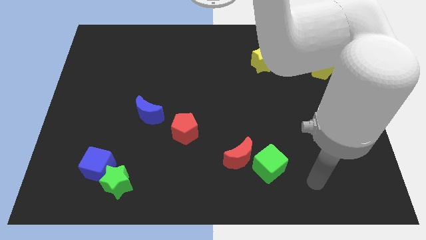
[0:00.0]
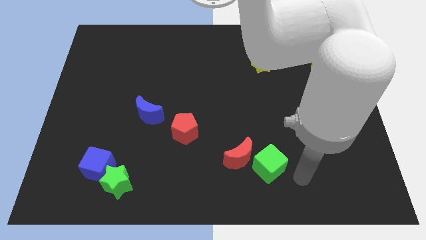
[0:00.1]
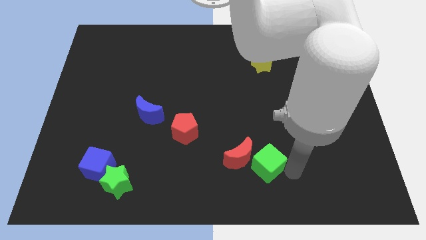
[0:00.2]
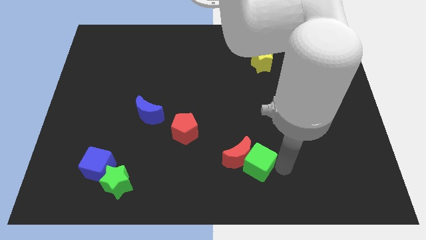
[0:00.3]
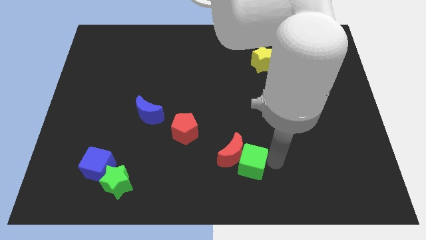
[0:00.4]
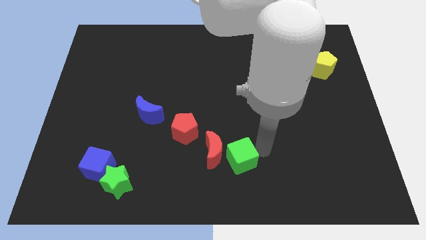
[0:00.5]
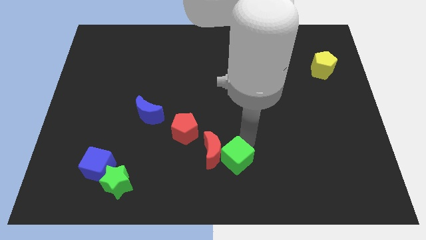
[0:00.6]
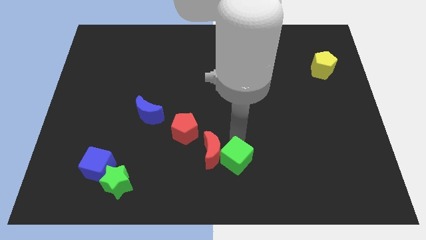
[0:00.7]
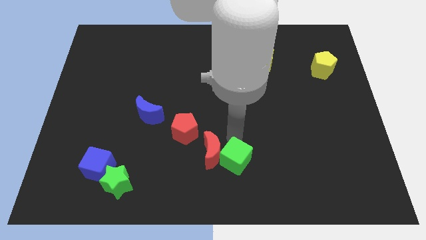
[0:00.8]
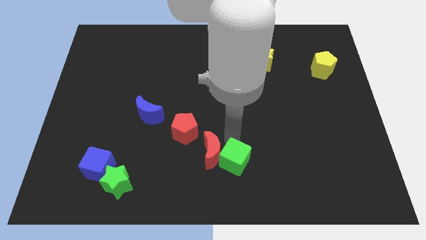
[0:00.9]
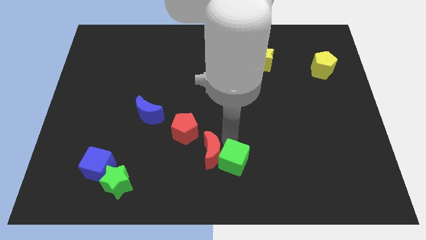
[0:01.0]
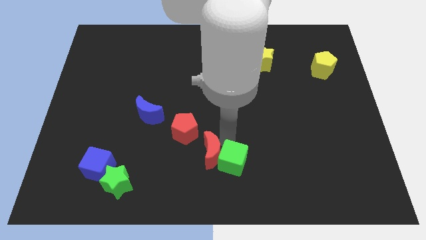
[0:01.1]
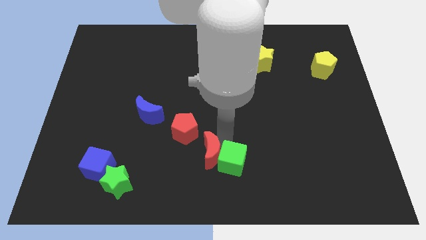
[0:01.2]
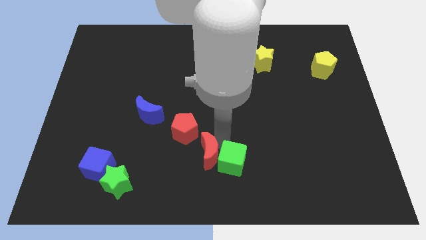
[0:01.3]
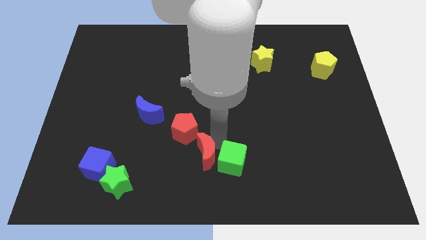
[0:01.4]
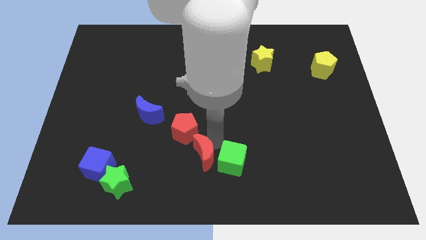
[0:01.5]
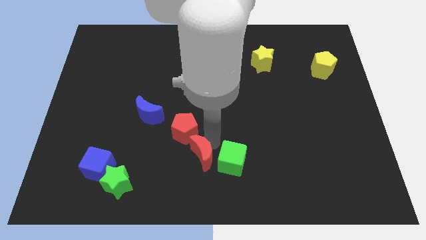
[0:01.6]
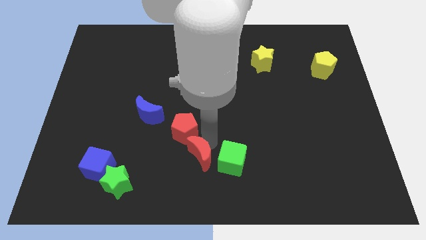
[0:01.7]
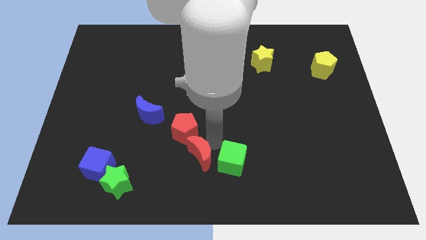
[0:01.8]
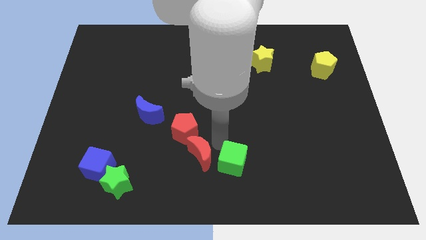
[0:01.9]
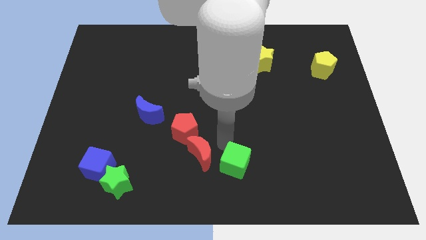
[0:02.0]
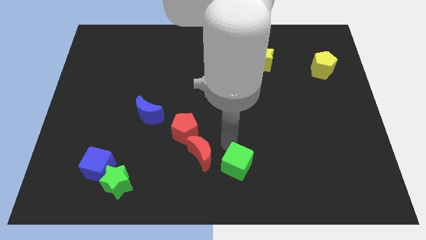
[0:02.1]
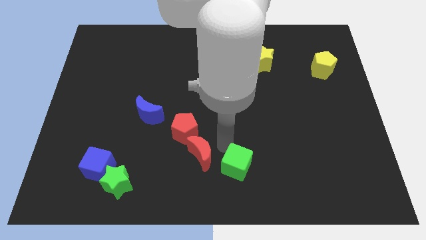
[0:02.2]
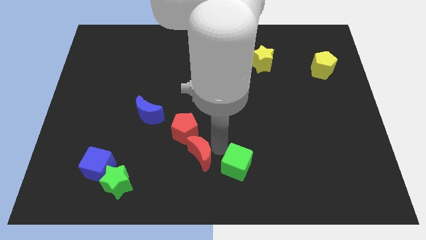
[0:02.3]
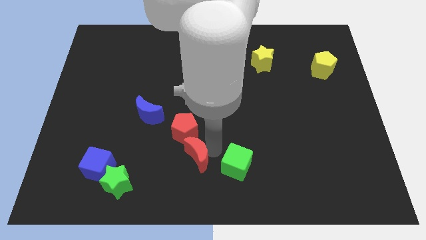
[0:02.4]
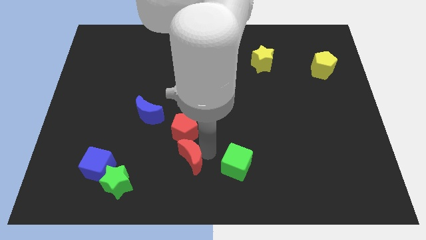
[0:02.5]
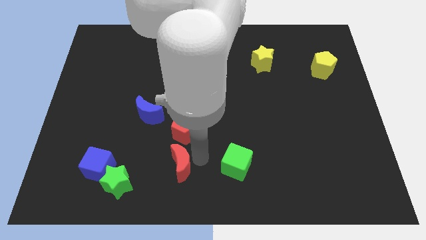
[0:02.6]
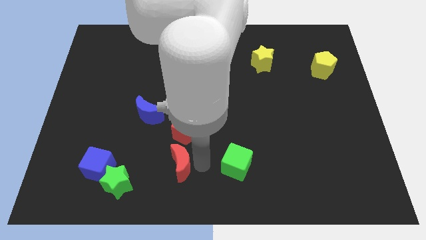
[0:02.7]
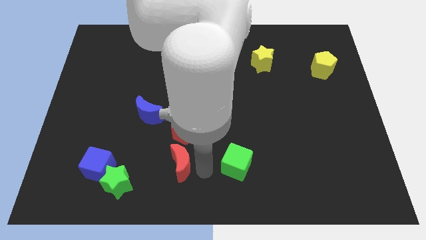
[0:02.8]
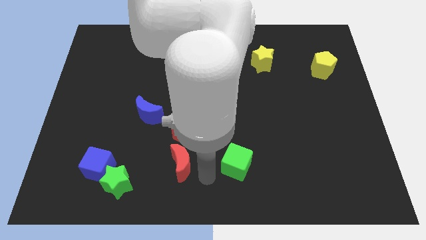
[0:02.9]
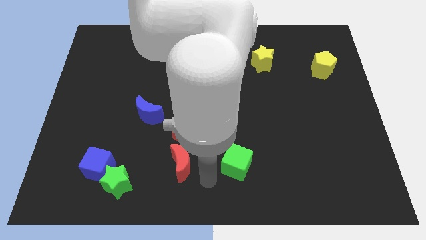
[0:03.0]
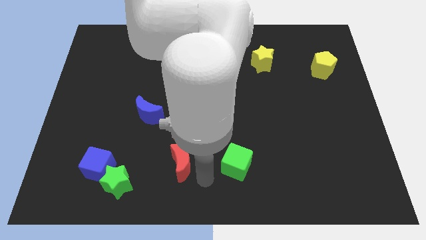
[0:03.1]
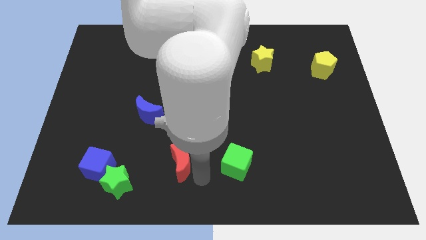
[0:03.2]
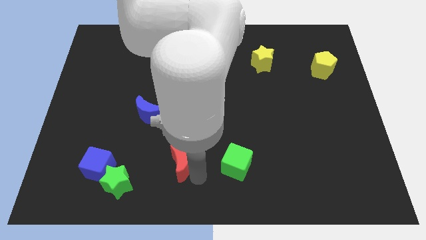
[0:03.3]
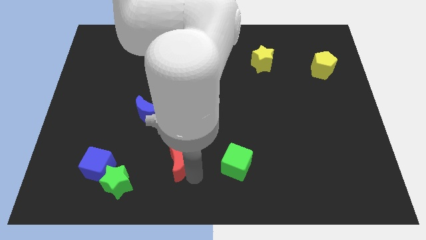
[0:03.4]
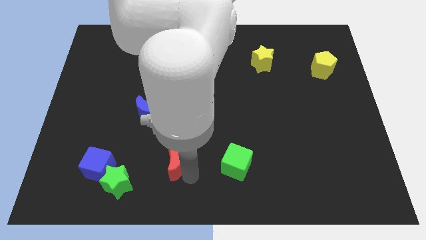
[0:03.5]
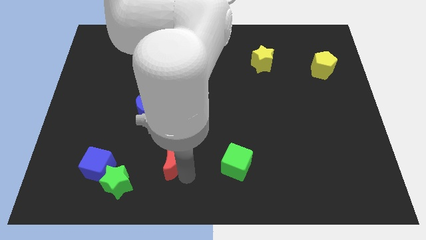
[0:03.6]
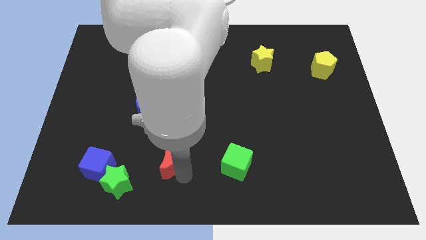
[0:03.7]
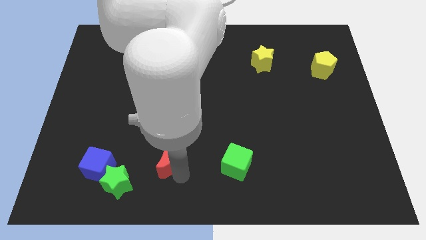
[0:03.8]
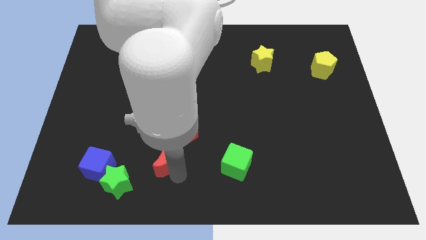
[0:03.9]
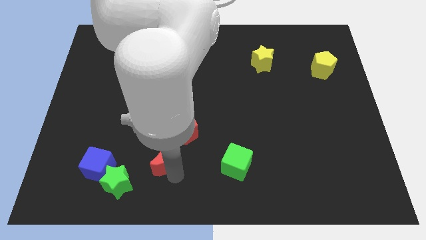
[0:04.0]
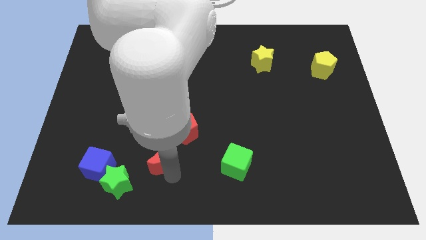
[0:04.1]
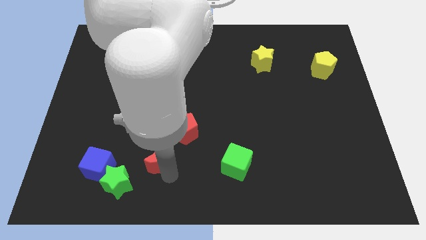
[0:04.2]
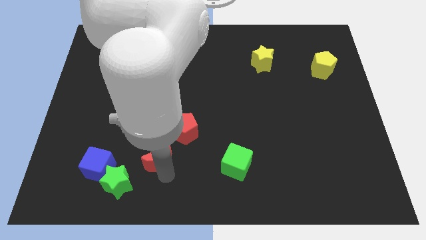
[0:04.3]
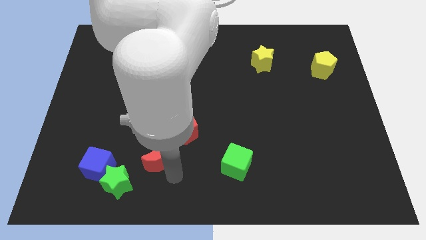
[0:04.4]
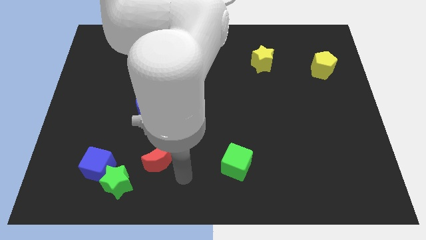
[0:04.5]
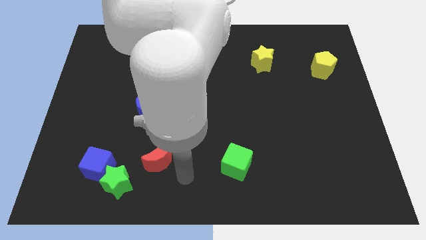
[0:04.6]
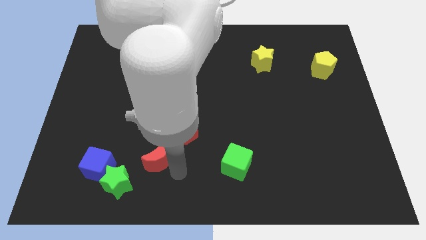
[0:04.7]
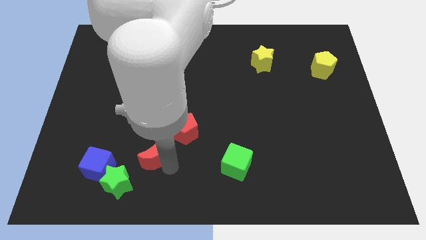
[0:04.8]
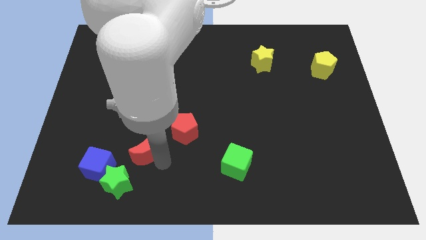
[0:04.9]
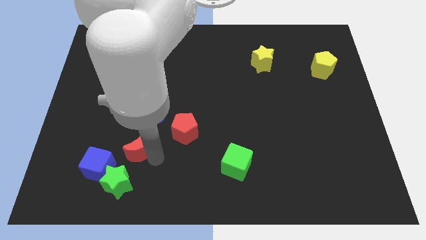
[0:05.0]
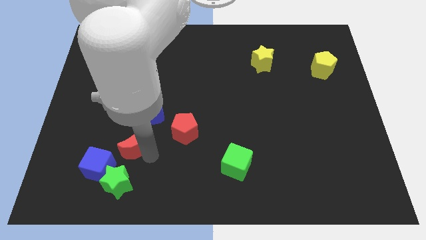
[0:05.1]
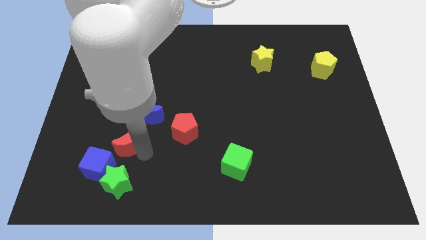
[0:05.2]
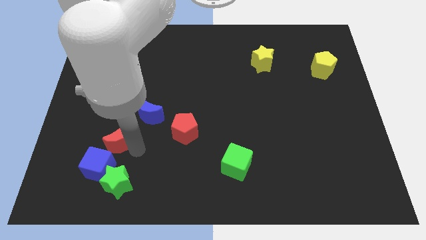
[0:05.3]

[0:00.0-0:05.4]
slide the red moon above the blue cube
